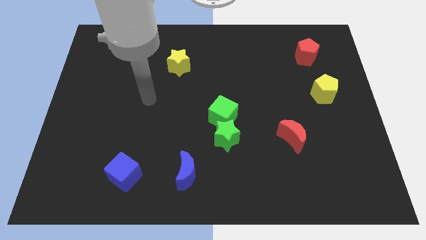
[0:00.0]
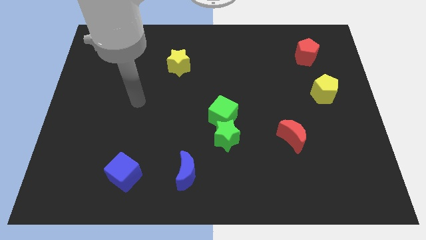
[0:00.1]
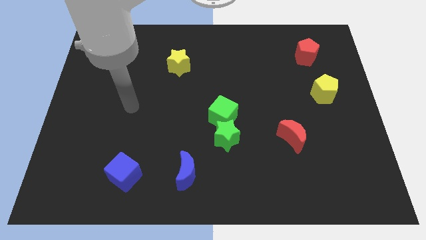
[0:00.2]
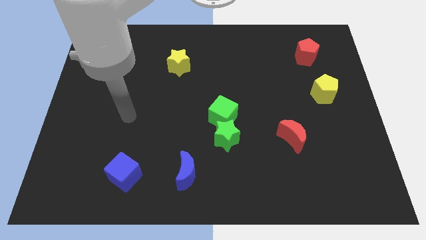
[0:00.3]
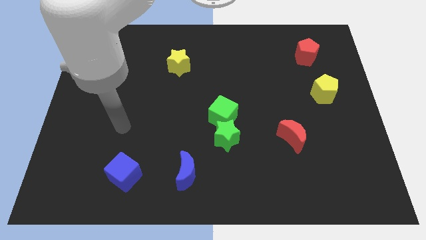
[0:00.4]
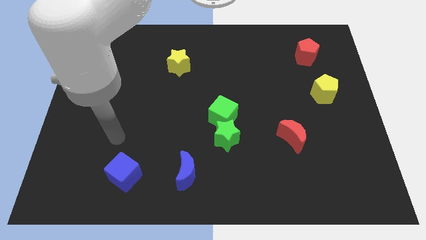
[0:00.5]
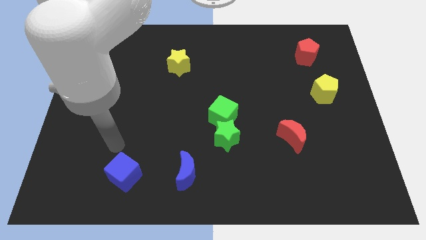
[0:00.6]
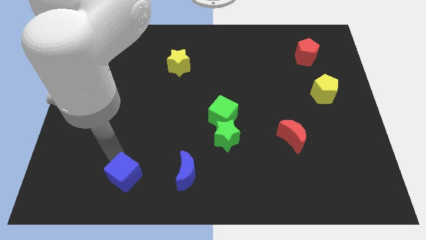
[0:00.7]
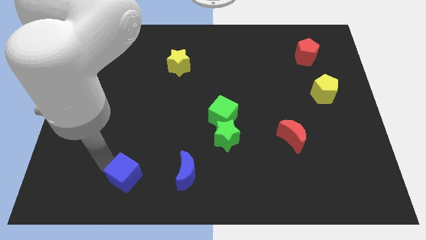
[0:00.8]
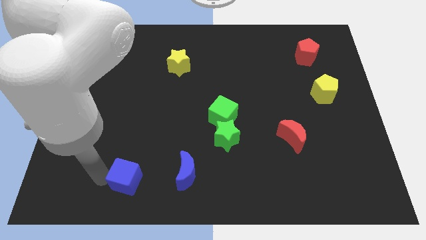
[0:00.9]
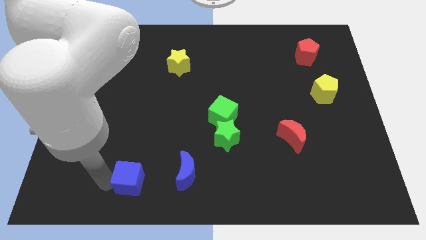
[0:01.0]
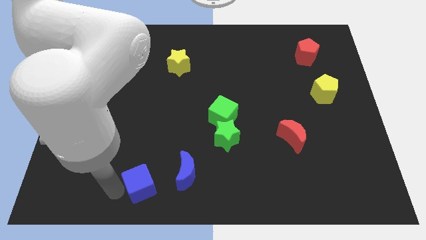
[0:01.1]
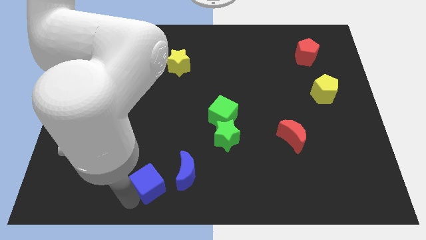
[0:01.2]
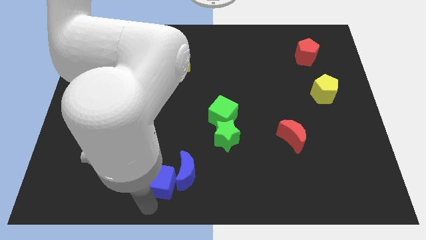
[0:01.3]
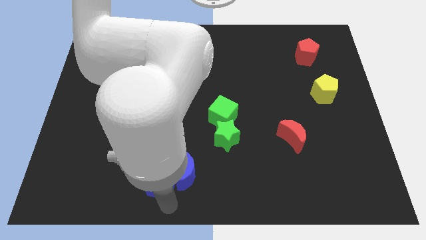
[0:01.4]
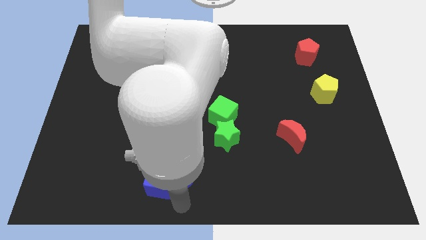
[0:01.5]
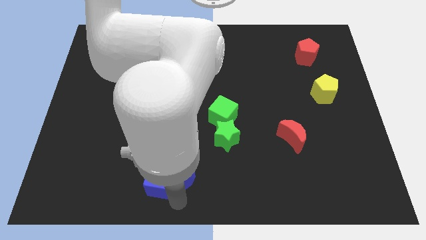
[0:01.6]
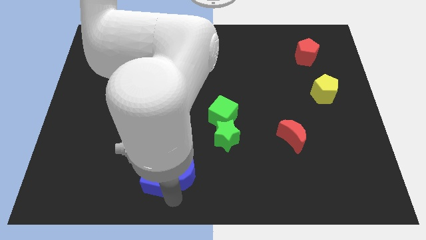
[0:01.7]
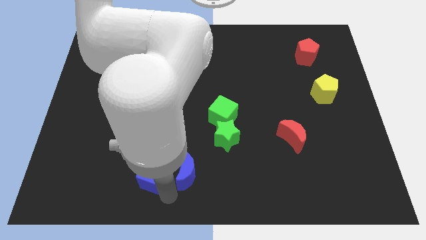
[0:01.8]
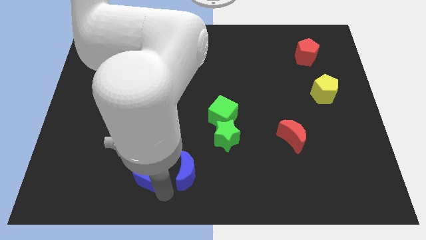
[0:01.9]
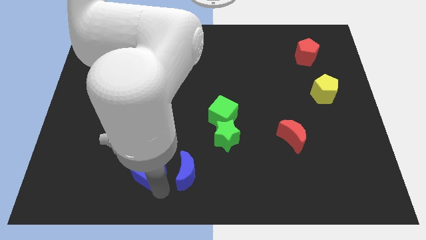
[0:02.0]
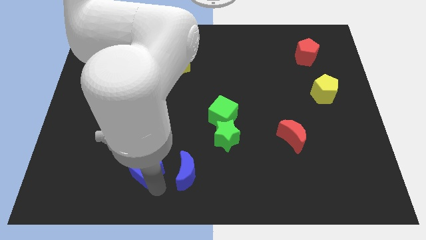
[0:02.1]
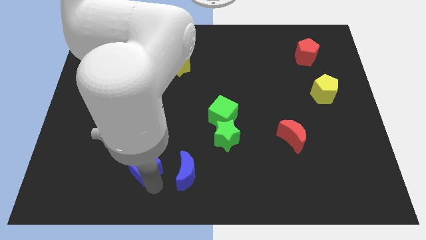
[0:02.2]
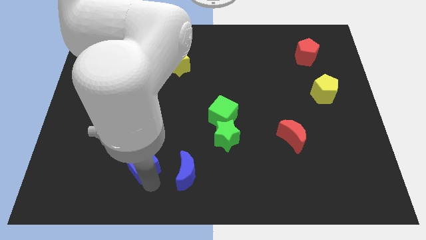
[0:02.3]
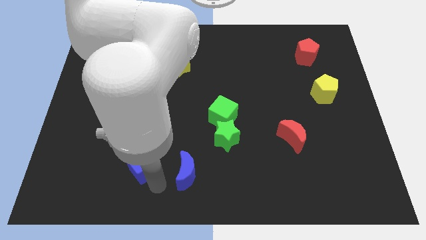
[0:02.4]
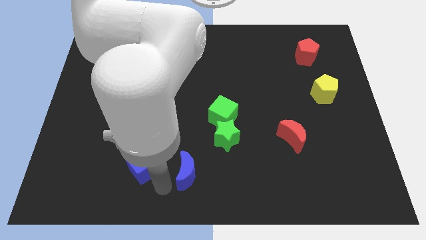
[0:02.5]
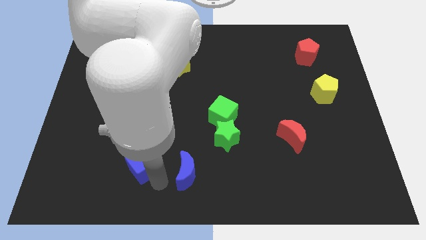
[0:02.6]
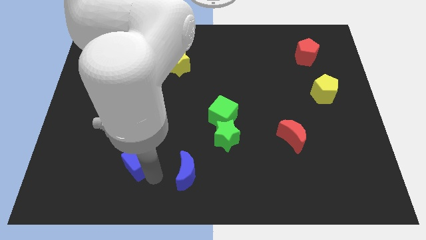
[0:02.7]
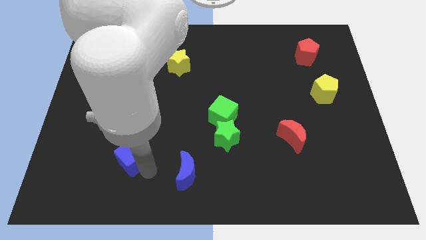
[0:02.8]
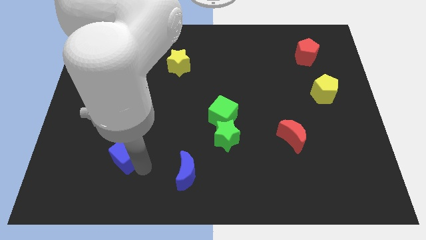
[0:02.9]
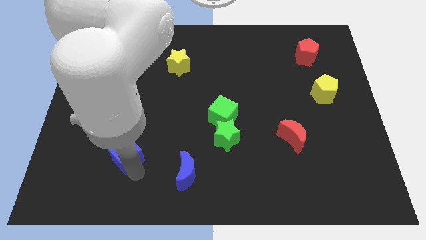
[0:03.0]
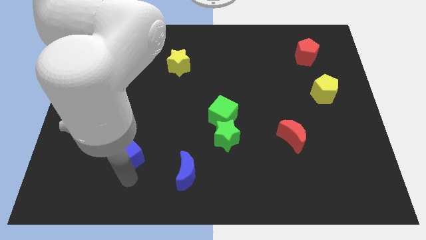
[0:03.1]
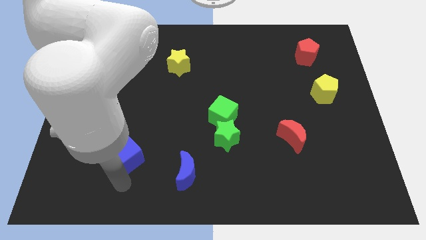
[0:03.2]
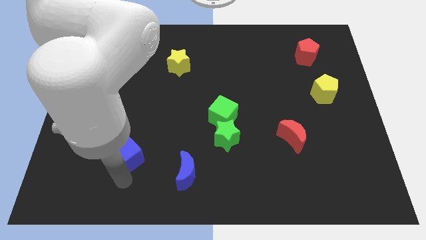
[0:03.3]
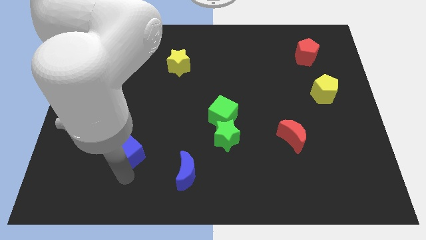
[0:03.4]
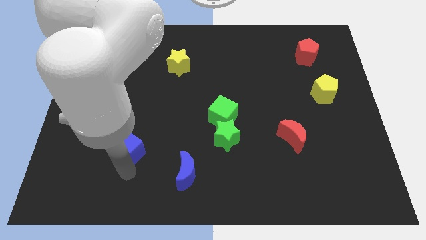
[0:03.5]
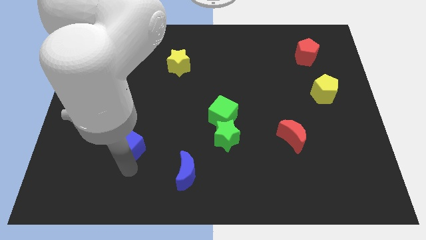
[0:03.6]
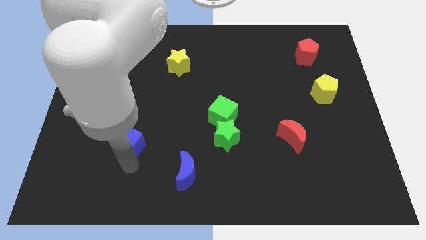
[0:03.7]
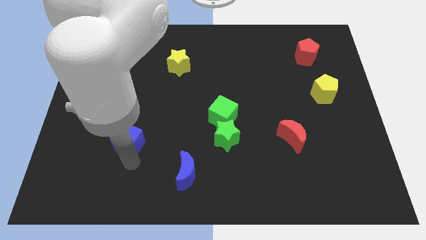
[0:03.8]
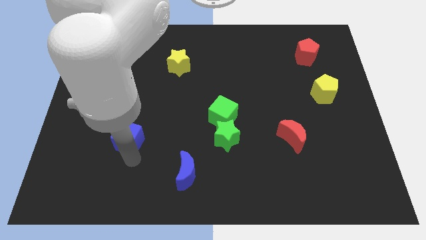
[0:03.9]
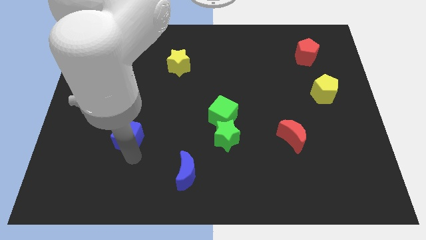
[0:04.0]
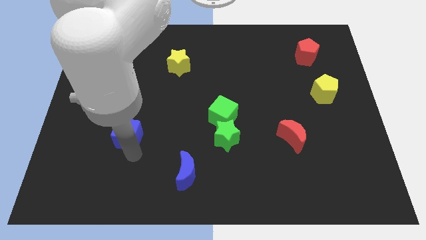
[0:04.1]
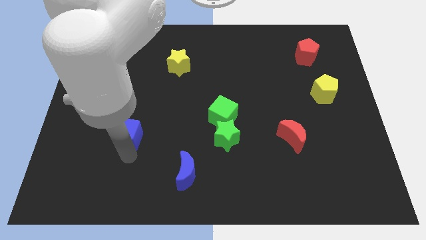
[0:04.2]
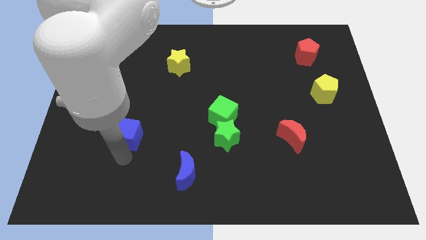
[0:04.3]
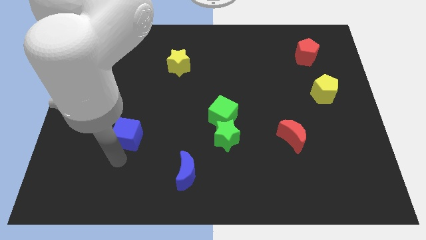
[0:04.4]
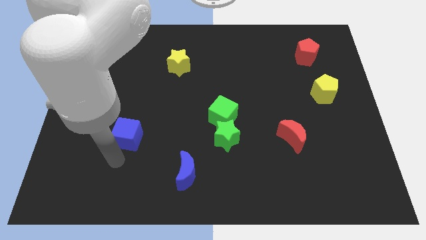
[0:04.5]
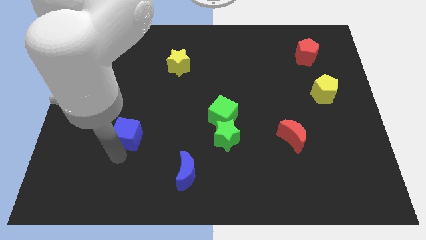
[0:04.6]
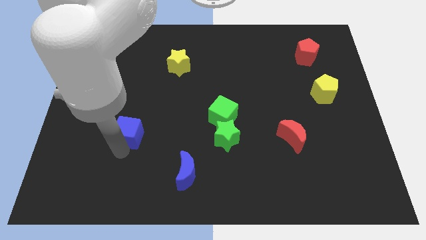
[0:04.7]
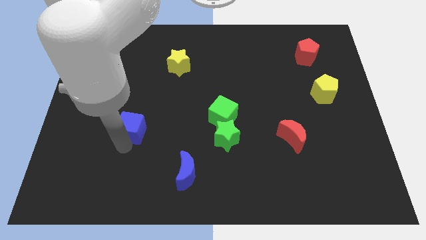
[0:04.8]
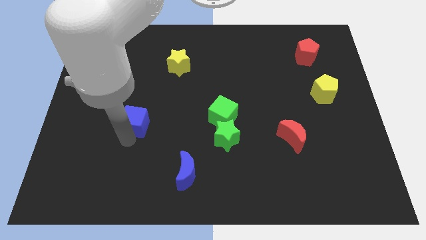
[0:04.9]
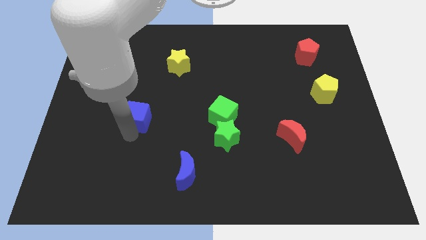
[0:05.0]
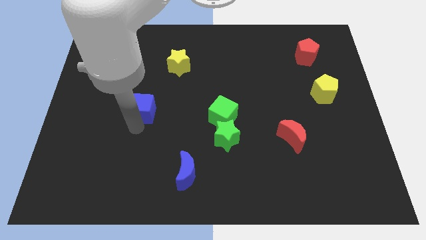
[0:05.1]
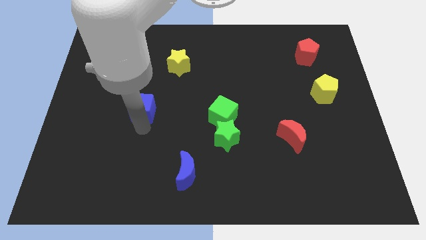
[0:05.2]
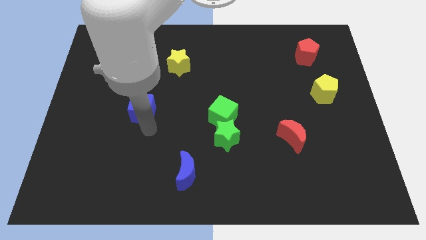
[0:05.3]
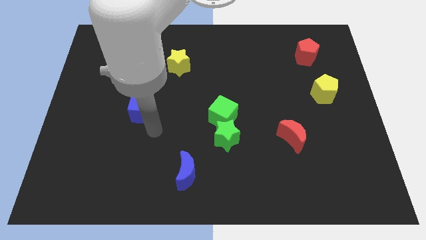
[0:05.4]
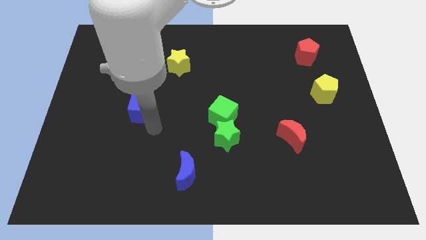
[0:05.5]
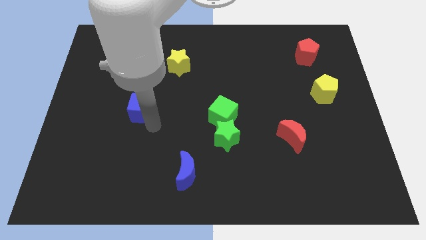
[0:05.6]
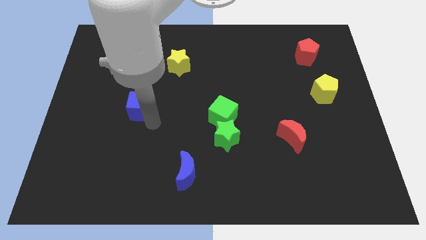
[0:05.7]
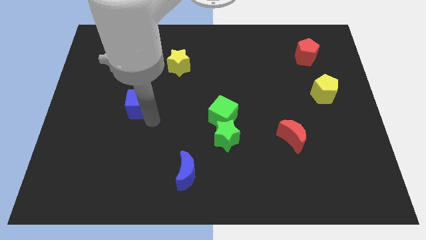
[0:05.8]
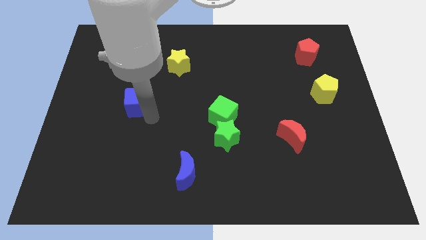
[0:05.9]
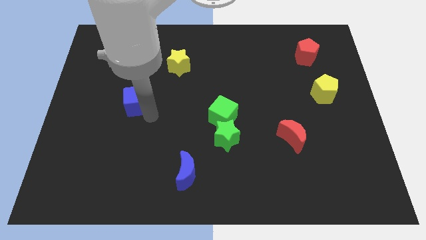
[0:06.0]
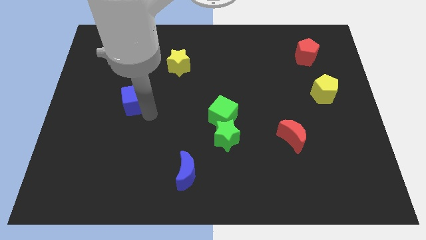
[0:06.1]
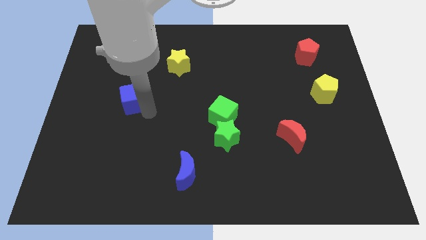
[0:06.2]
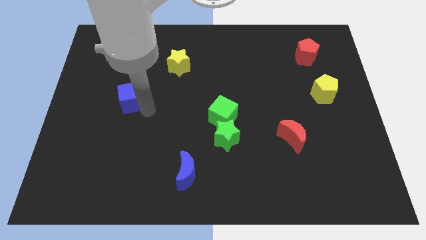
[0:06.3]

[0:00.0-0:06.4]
slide the blue cube up

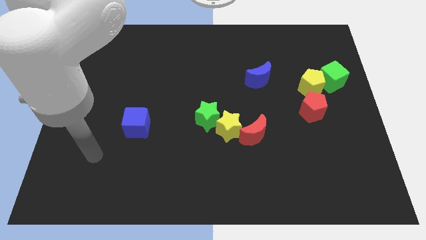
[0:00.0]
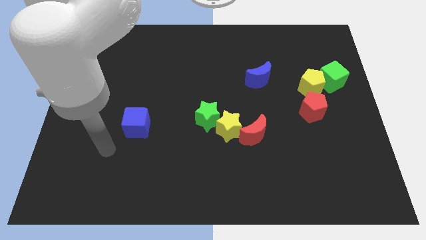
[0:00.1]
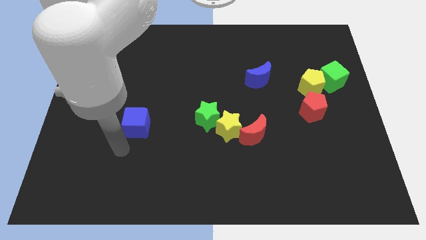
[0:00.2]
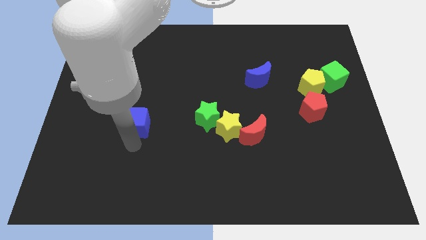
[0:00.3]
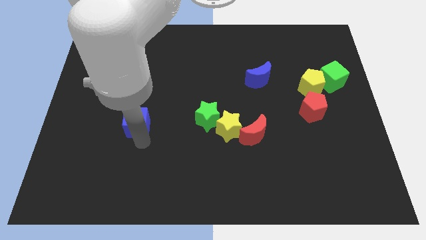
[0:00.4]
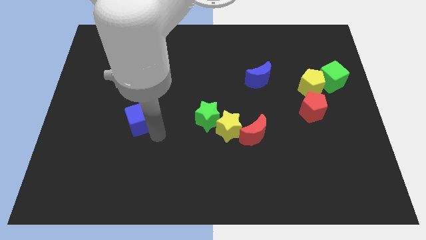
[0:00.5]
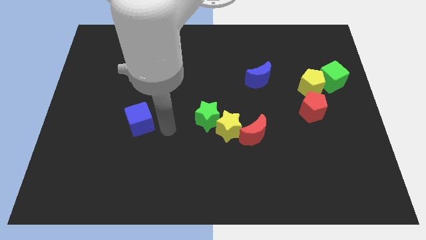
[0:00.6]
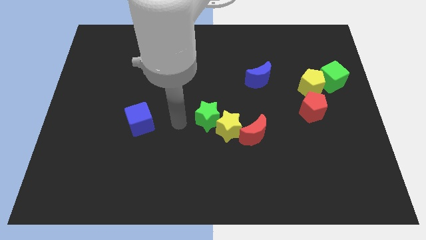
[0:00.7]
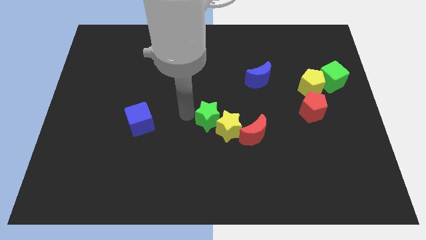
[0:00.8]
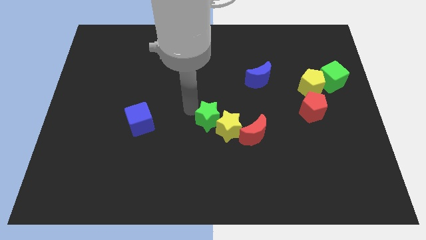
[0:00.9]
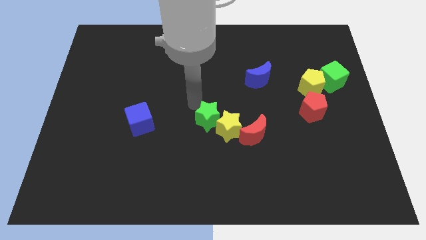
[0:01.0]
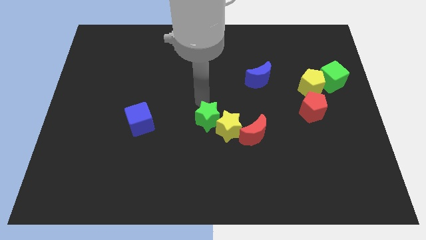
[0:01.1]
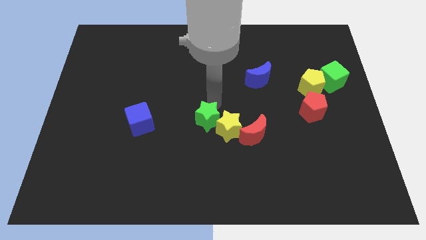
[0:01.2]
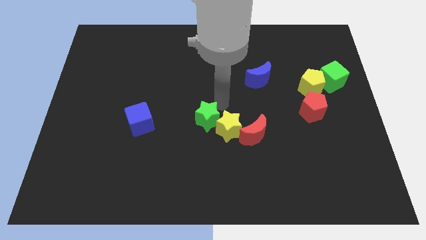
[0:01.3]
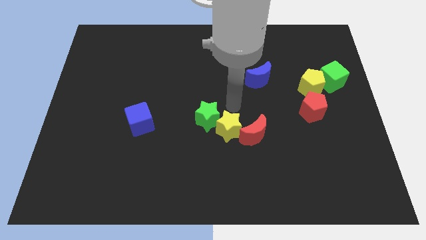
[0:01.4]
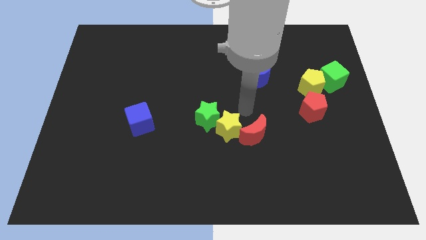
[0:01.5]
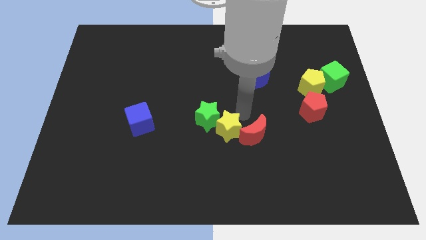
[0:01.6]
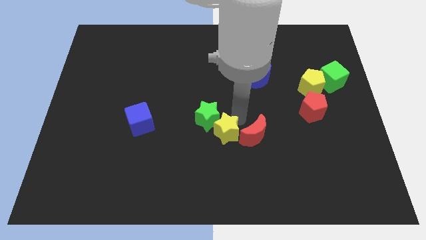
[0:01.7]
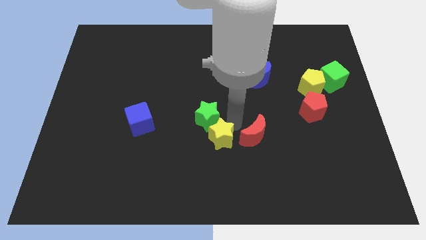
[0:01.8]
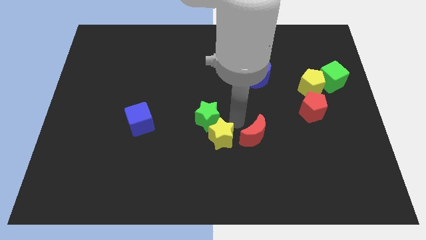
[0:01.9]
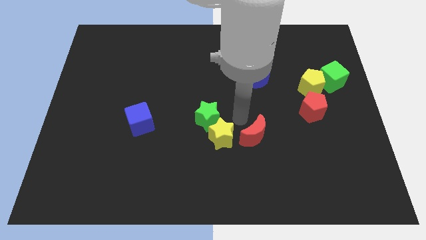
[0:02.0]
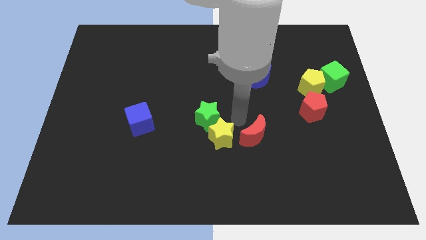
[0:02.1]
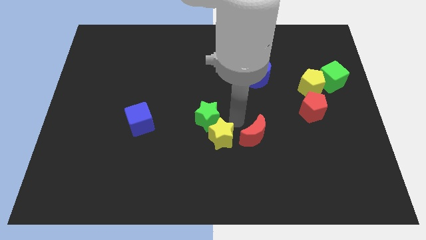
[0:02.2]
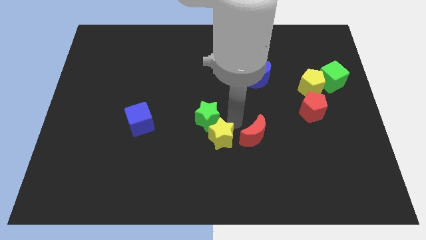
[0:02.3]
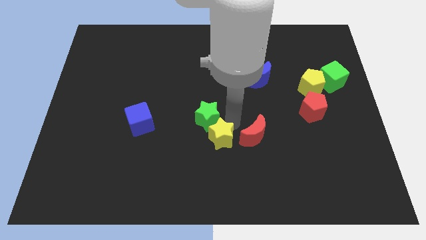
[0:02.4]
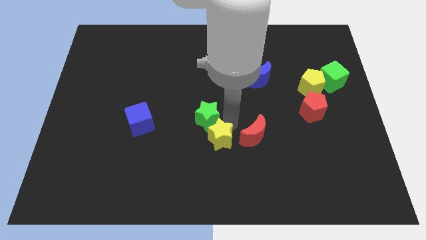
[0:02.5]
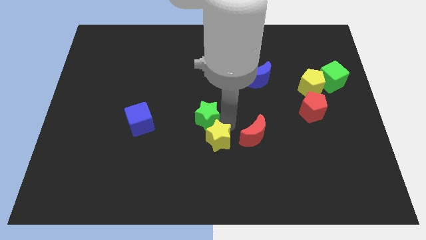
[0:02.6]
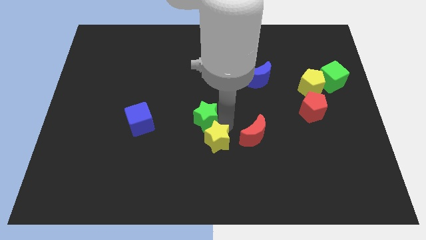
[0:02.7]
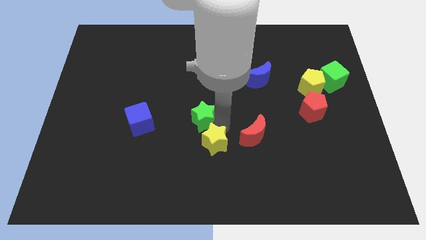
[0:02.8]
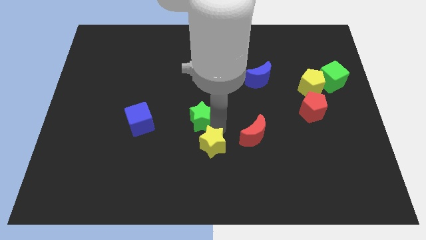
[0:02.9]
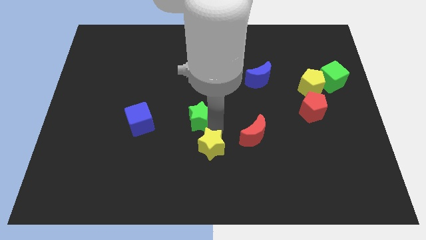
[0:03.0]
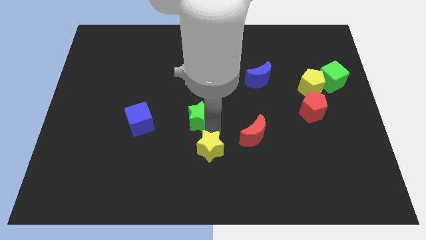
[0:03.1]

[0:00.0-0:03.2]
slightly push the yellow star downwards and left
